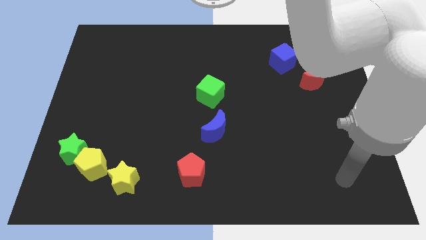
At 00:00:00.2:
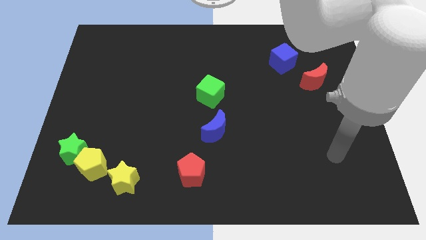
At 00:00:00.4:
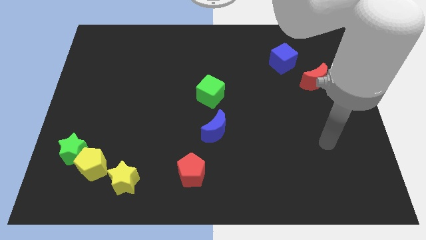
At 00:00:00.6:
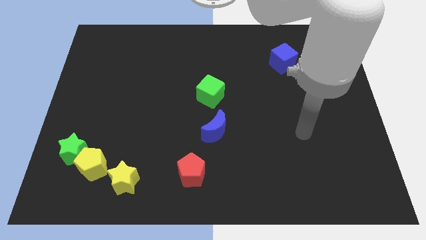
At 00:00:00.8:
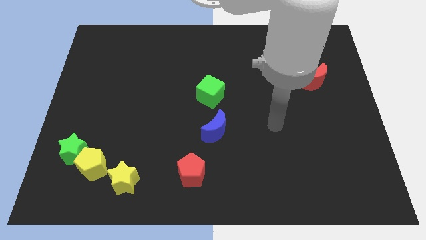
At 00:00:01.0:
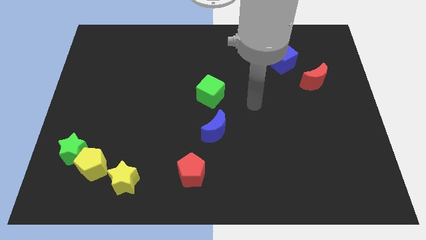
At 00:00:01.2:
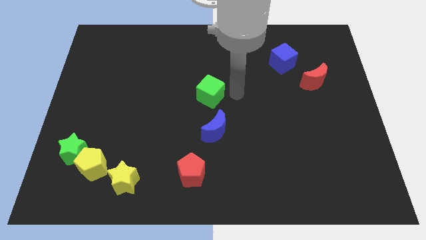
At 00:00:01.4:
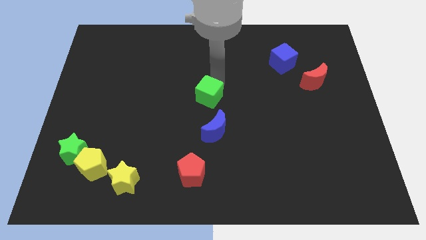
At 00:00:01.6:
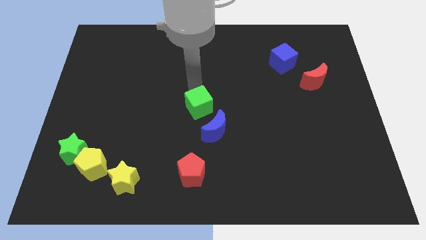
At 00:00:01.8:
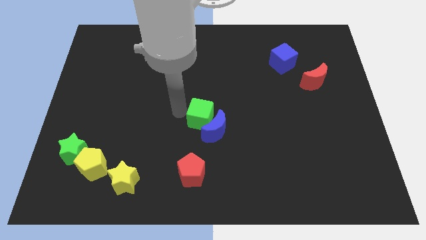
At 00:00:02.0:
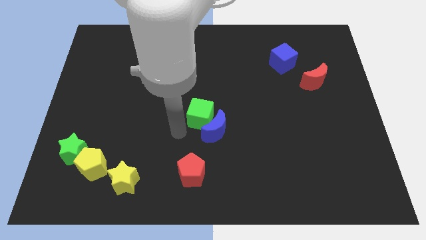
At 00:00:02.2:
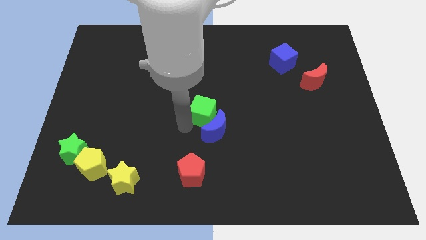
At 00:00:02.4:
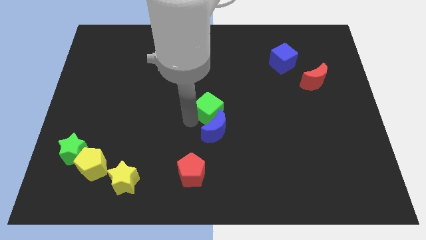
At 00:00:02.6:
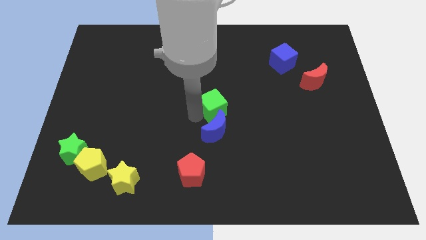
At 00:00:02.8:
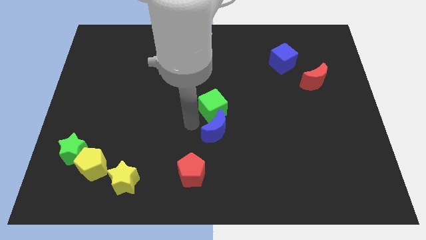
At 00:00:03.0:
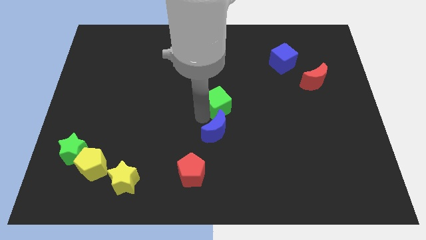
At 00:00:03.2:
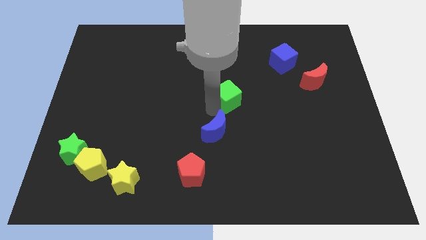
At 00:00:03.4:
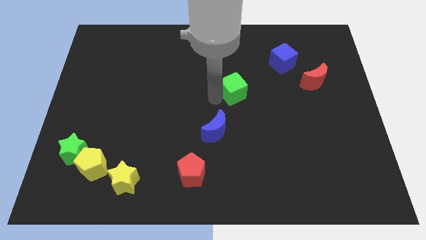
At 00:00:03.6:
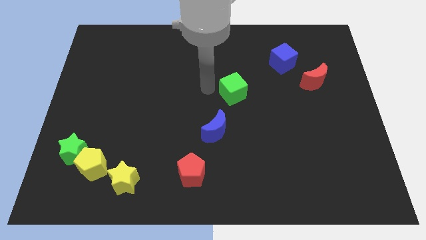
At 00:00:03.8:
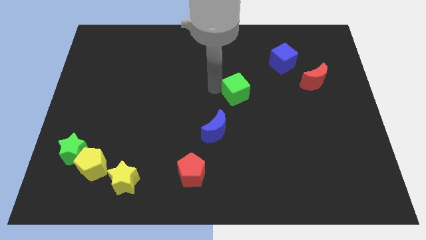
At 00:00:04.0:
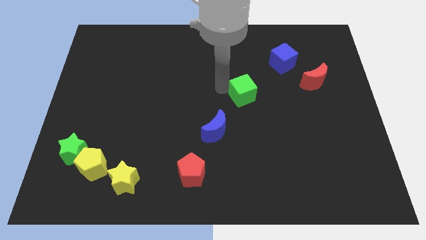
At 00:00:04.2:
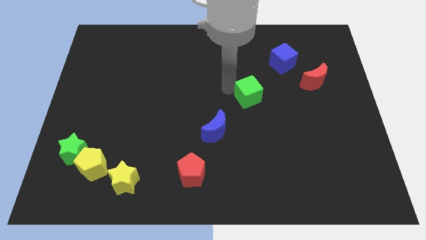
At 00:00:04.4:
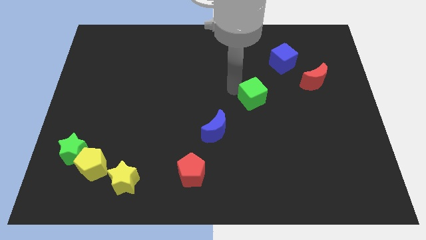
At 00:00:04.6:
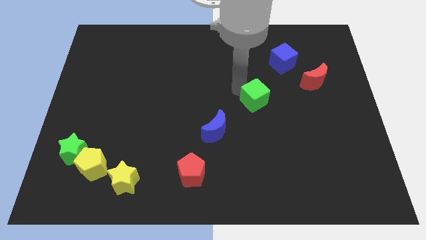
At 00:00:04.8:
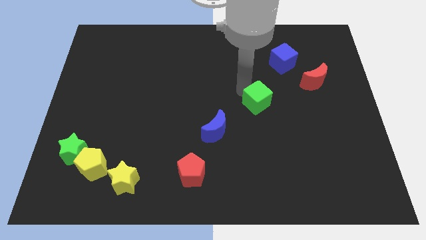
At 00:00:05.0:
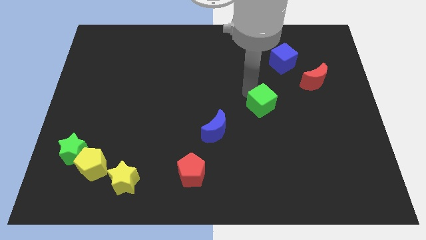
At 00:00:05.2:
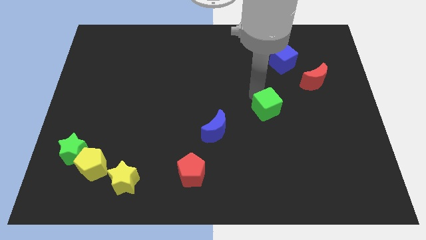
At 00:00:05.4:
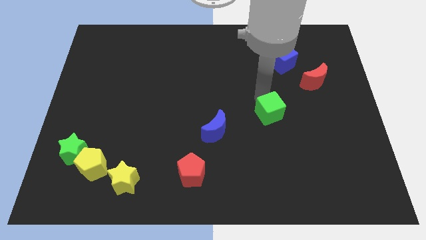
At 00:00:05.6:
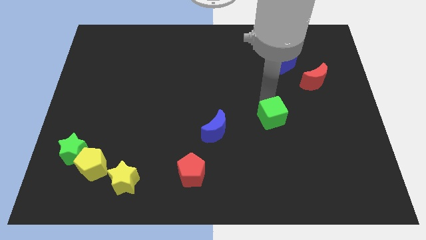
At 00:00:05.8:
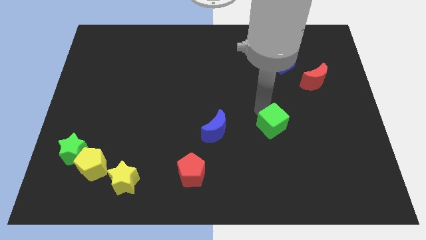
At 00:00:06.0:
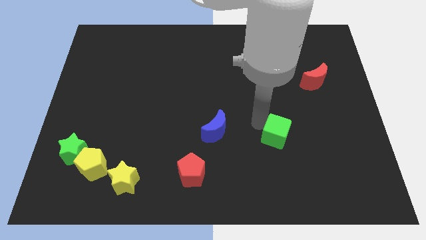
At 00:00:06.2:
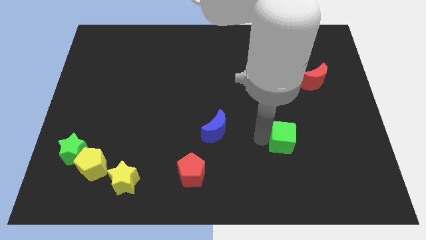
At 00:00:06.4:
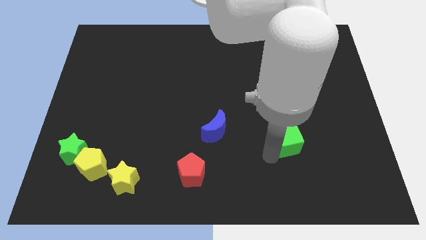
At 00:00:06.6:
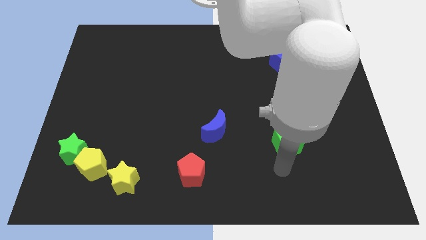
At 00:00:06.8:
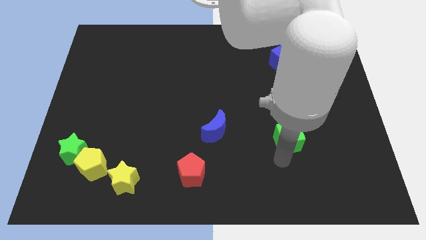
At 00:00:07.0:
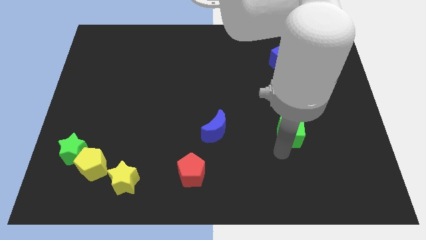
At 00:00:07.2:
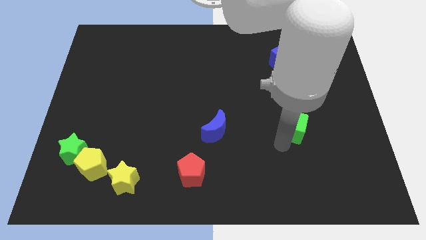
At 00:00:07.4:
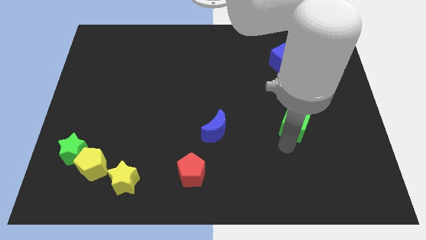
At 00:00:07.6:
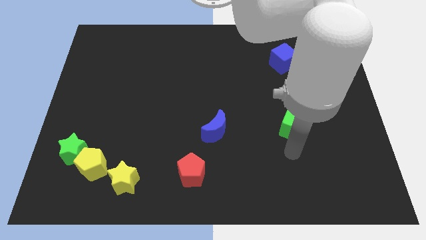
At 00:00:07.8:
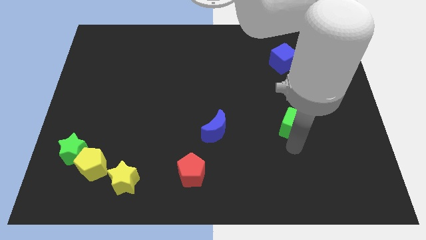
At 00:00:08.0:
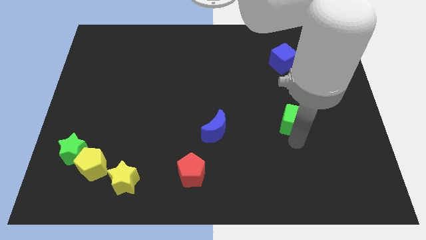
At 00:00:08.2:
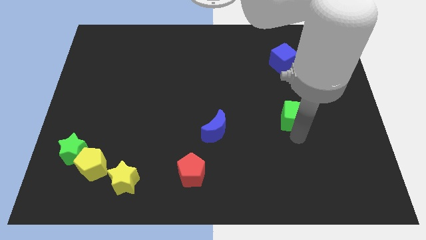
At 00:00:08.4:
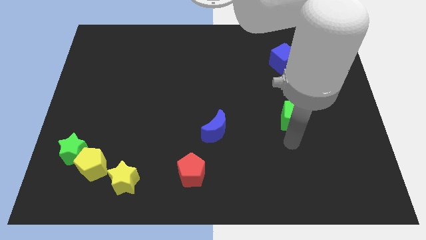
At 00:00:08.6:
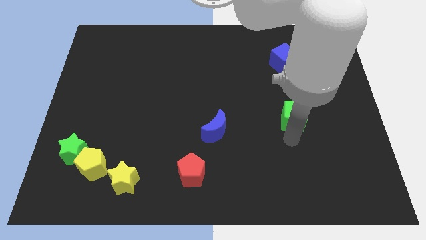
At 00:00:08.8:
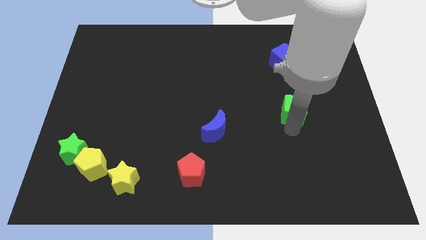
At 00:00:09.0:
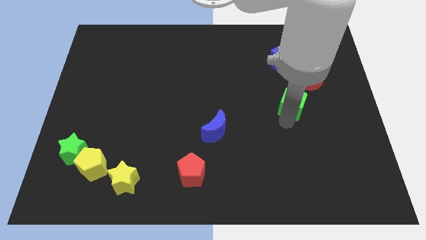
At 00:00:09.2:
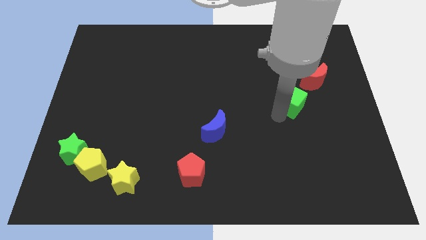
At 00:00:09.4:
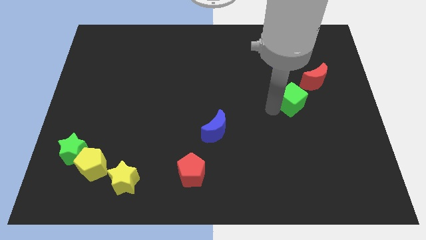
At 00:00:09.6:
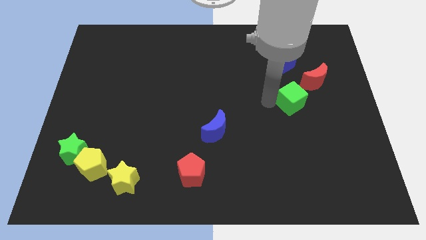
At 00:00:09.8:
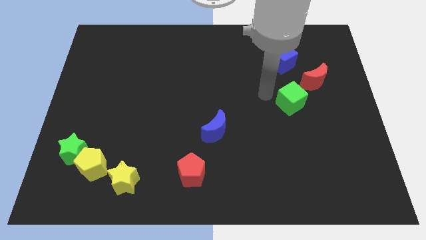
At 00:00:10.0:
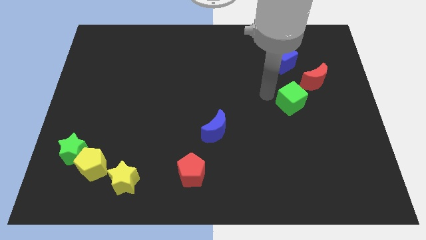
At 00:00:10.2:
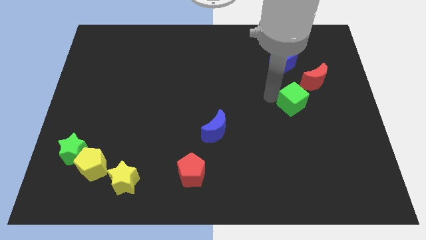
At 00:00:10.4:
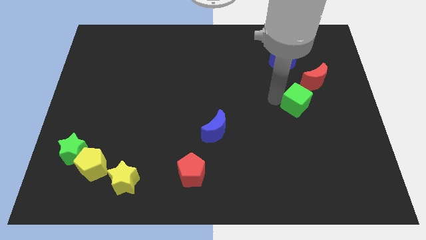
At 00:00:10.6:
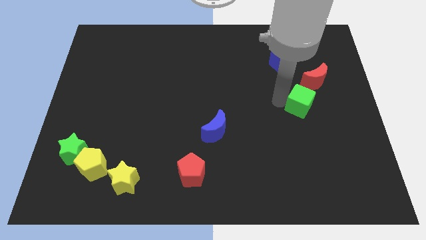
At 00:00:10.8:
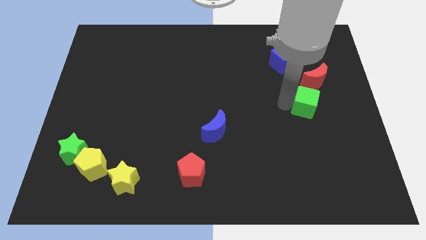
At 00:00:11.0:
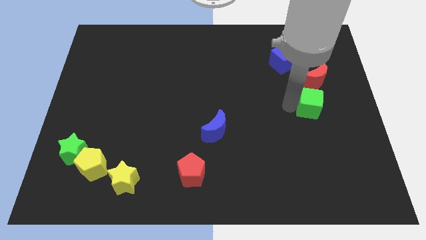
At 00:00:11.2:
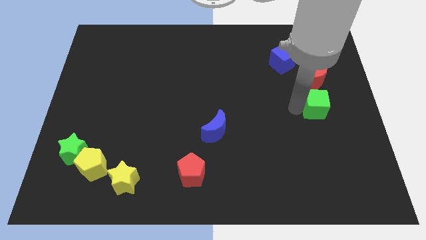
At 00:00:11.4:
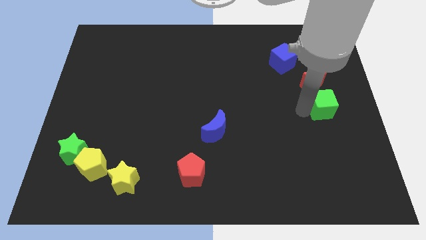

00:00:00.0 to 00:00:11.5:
push the green cube to the right side

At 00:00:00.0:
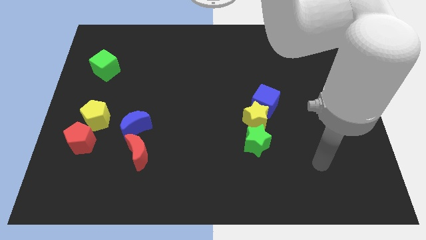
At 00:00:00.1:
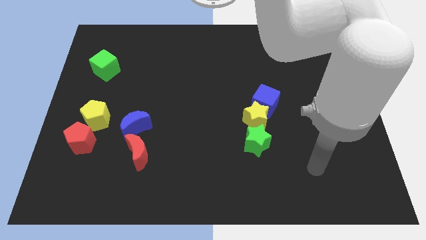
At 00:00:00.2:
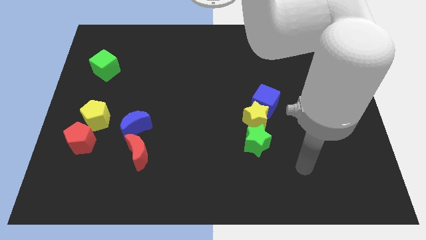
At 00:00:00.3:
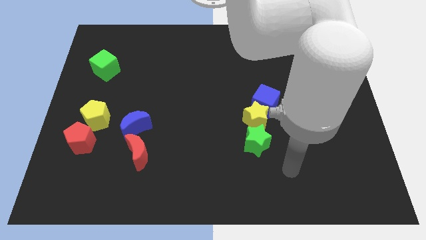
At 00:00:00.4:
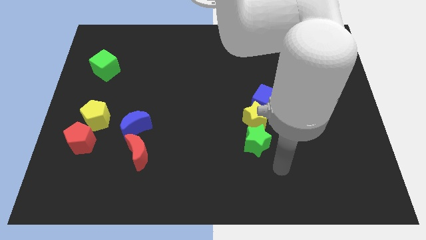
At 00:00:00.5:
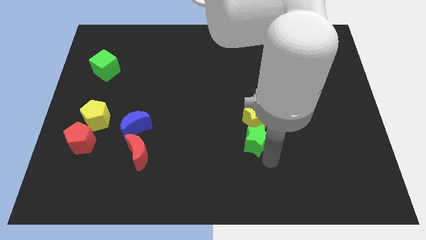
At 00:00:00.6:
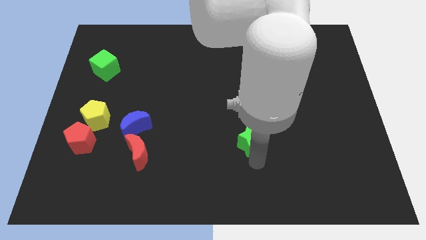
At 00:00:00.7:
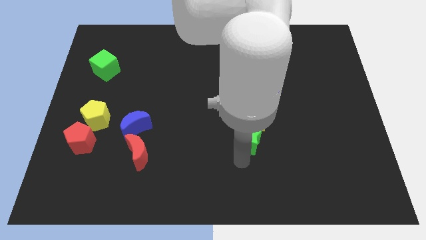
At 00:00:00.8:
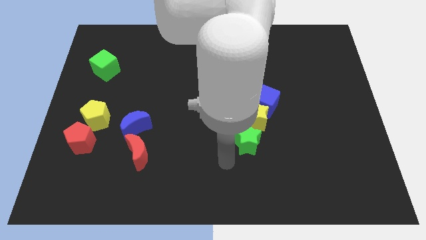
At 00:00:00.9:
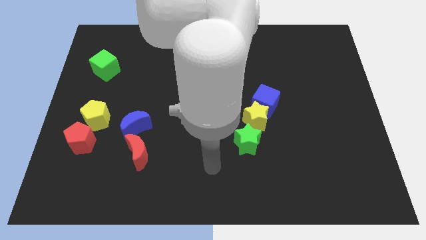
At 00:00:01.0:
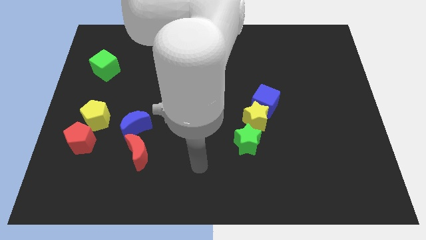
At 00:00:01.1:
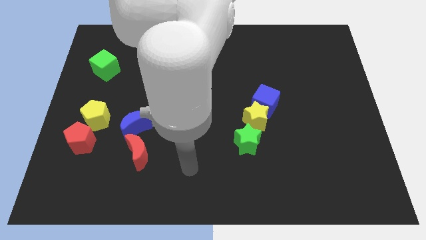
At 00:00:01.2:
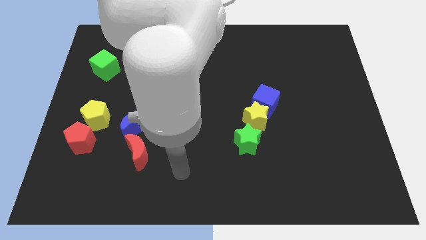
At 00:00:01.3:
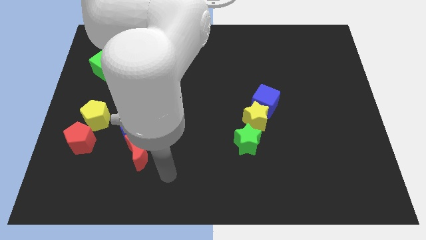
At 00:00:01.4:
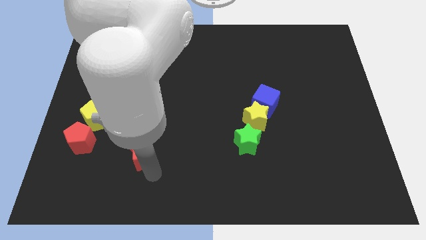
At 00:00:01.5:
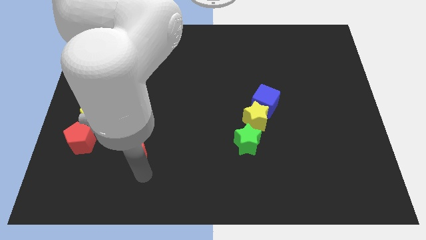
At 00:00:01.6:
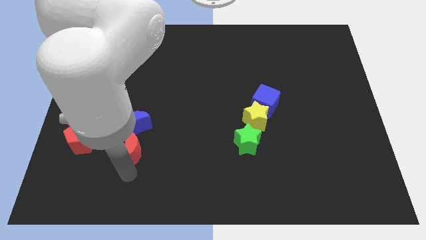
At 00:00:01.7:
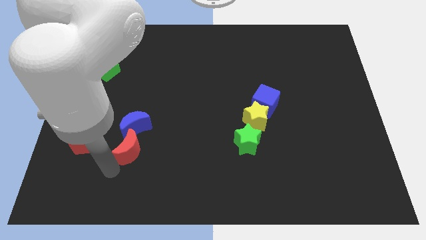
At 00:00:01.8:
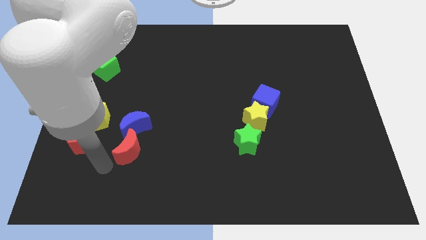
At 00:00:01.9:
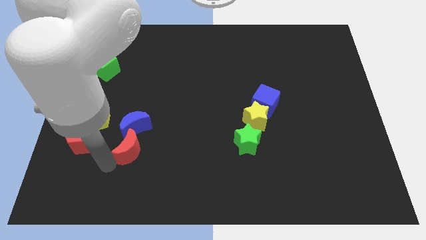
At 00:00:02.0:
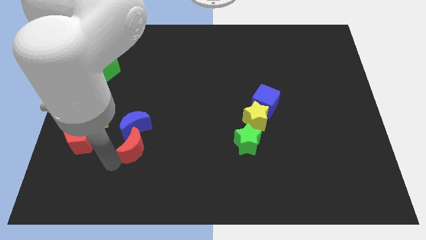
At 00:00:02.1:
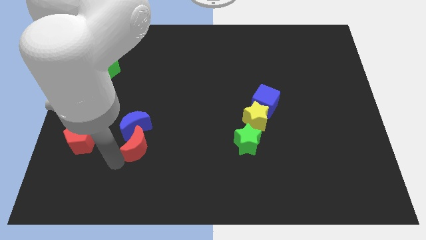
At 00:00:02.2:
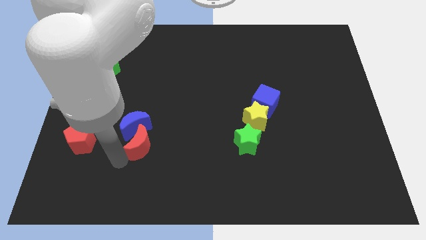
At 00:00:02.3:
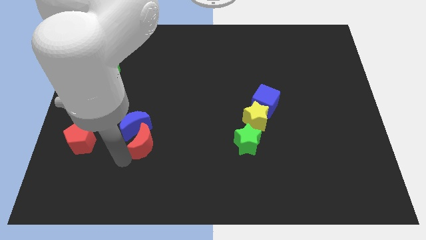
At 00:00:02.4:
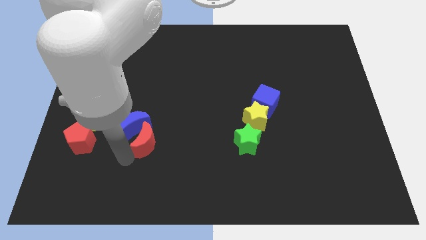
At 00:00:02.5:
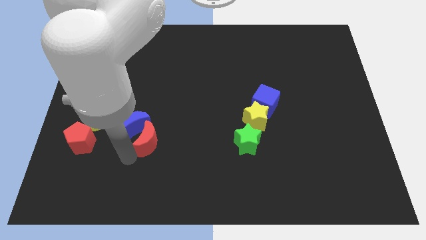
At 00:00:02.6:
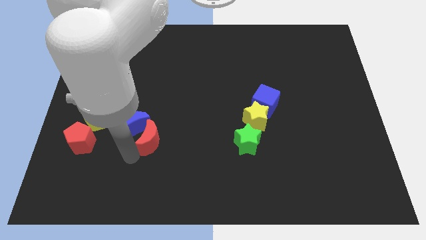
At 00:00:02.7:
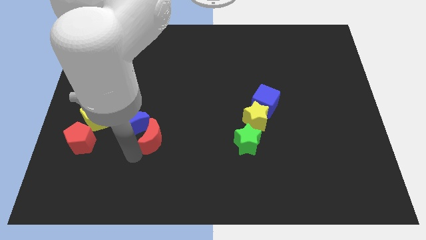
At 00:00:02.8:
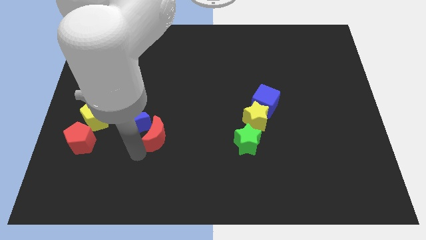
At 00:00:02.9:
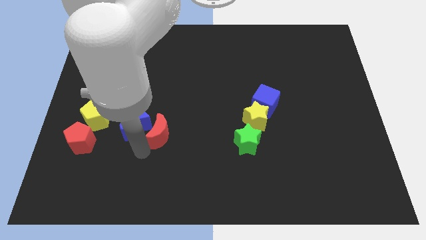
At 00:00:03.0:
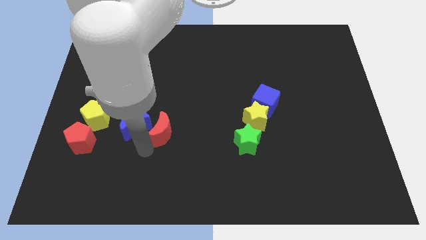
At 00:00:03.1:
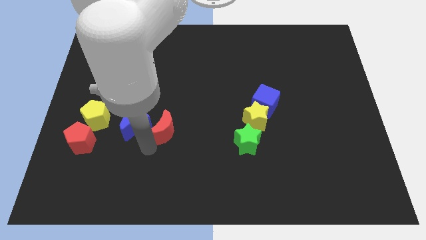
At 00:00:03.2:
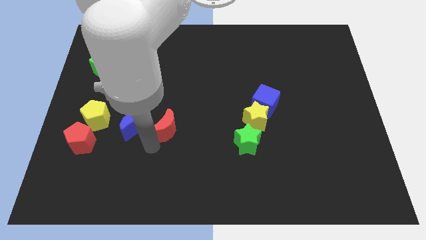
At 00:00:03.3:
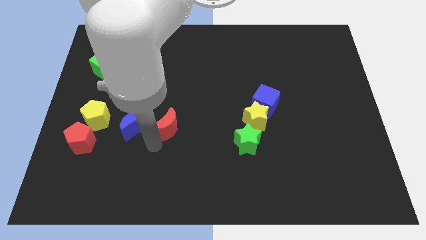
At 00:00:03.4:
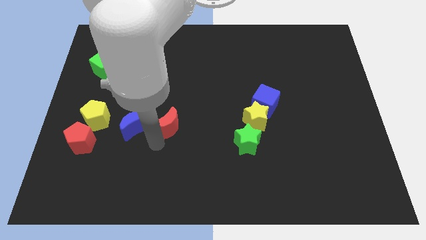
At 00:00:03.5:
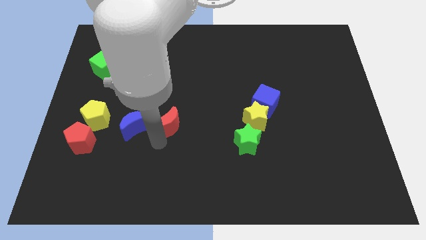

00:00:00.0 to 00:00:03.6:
move the red moon to the middle
